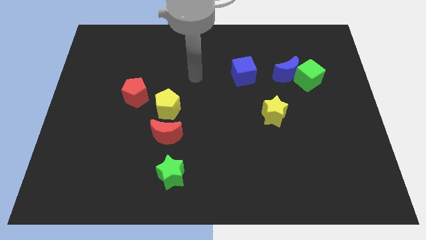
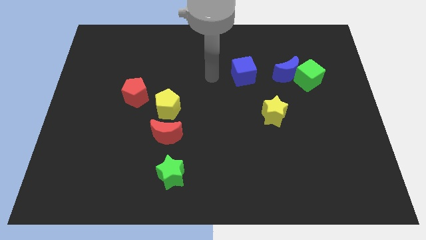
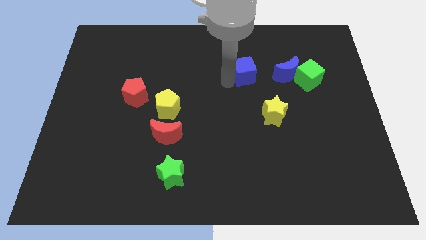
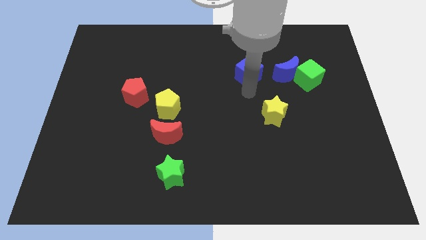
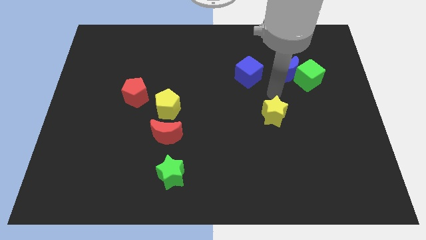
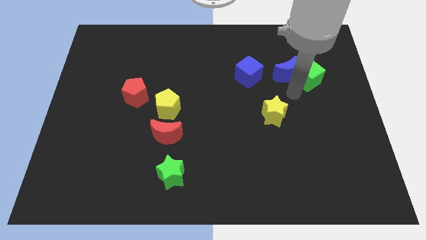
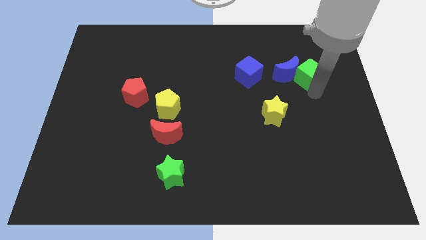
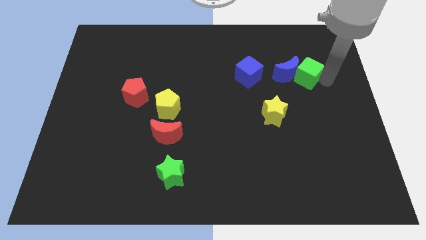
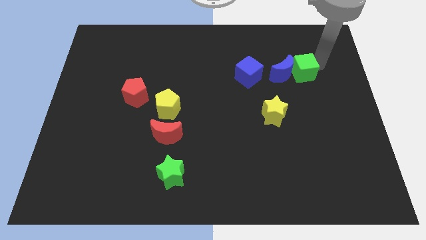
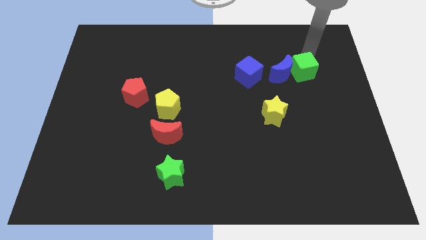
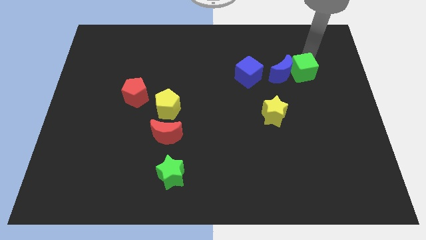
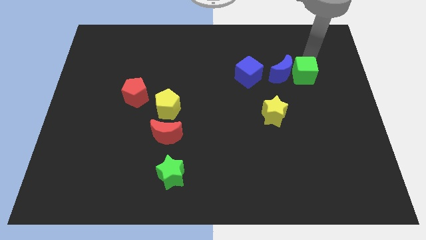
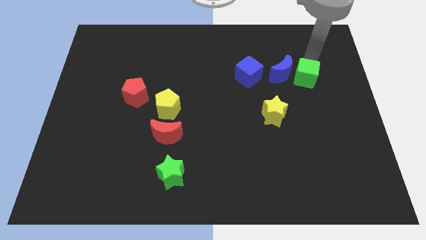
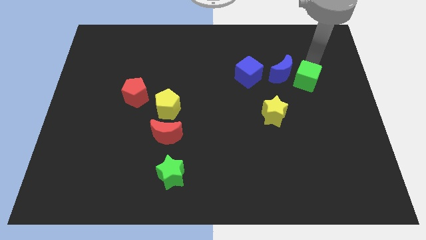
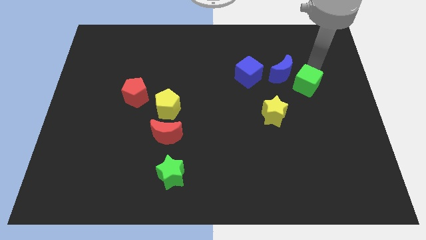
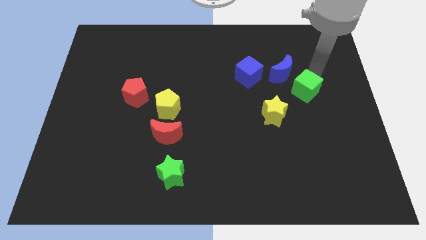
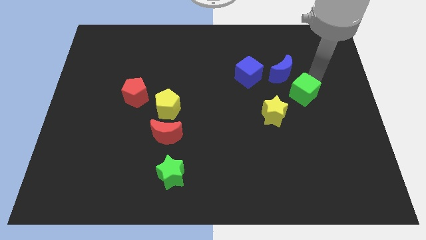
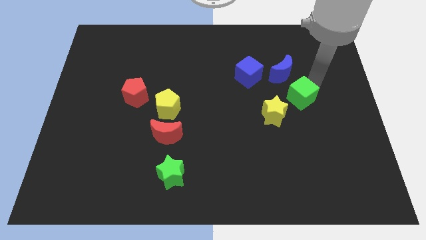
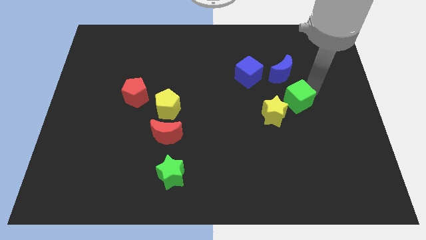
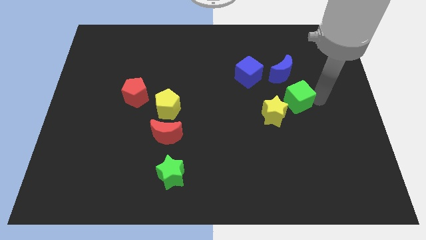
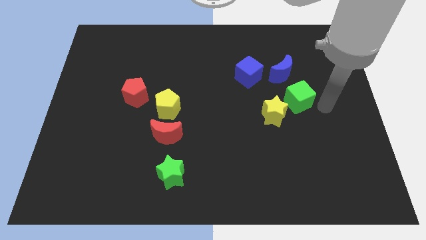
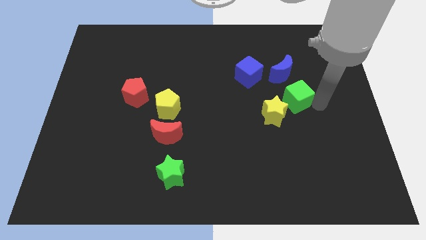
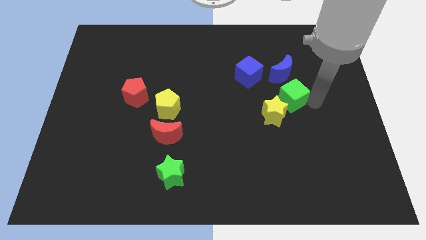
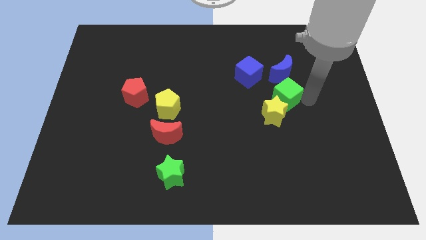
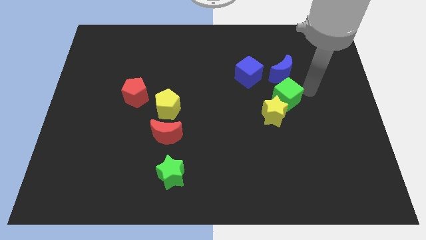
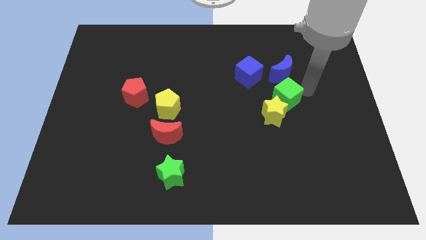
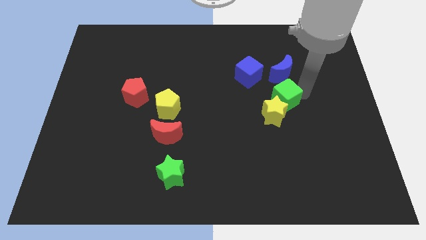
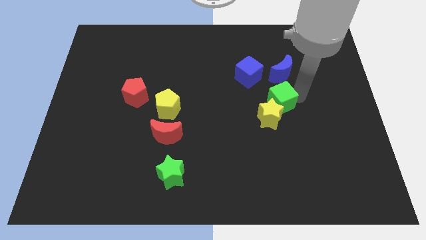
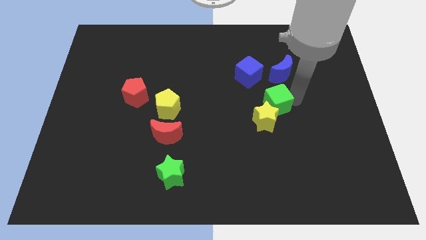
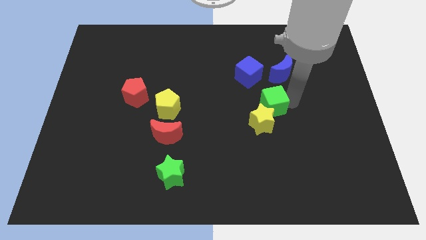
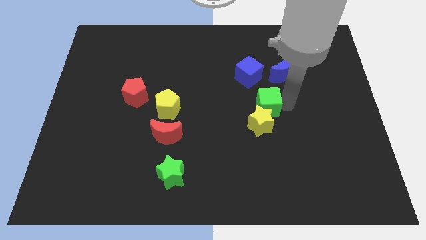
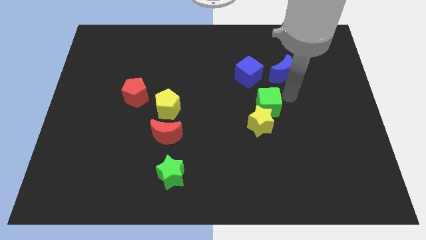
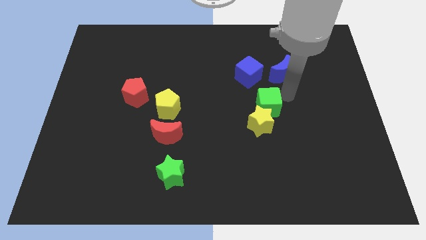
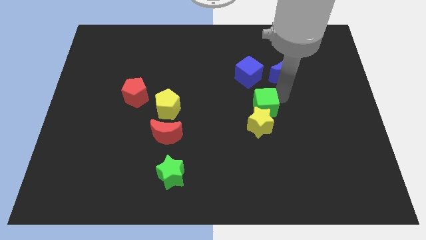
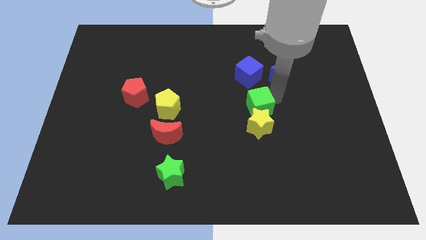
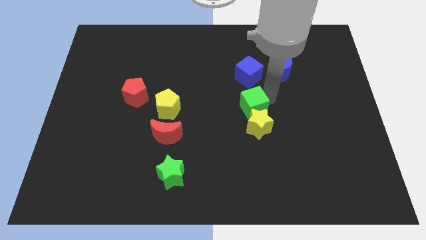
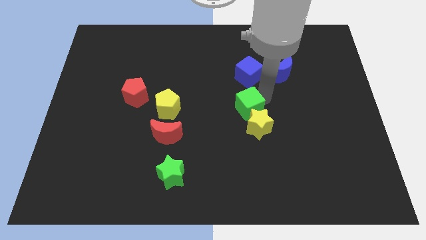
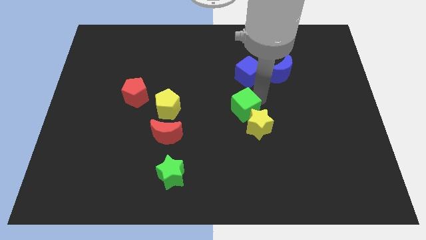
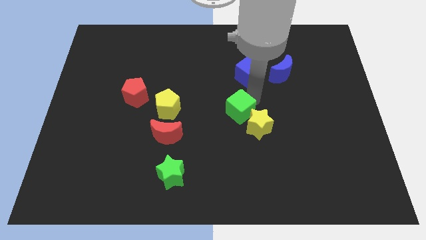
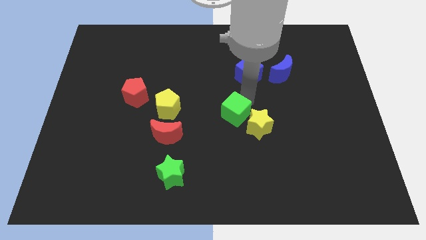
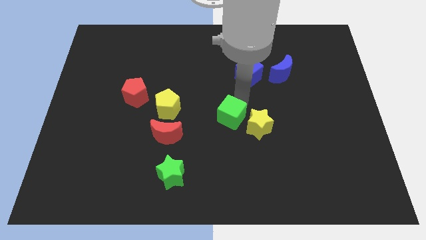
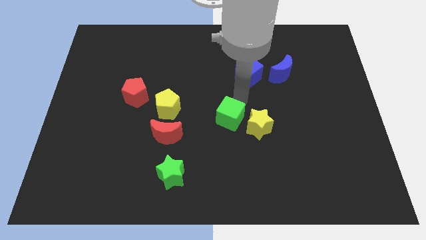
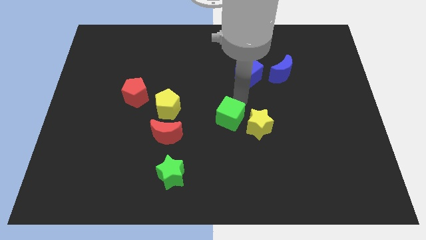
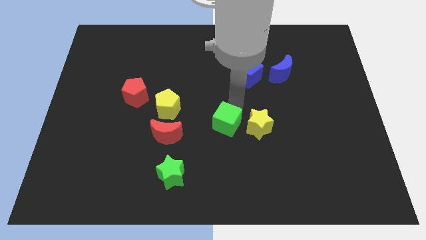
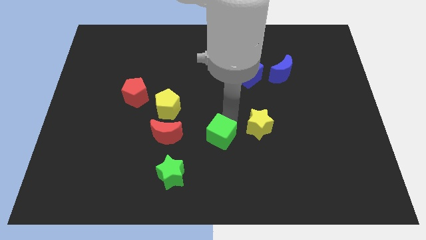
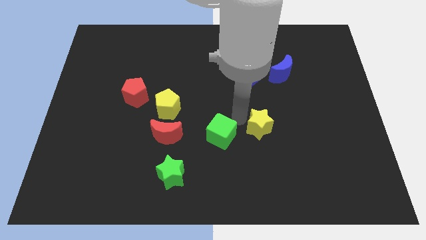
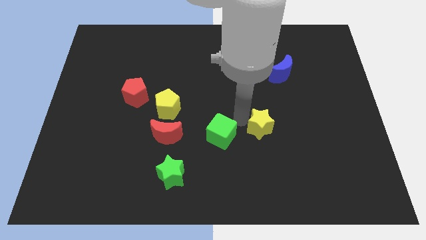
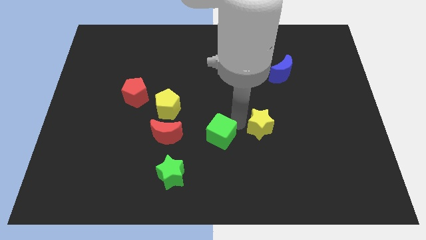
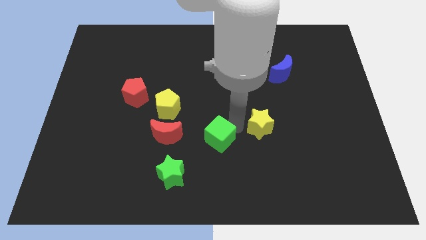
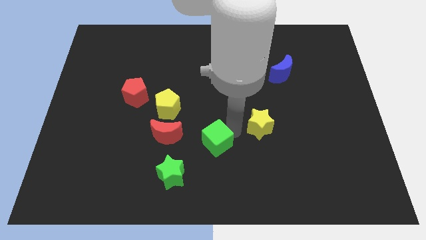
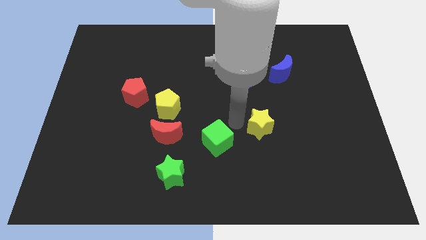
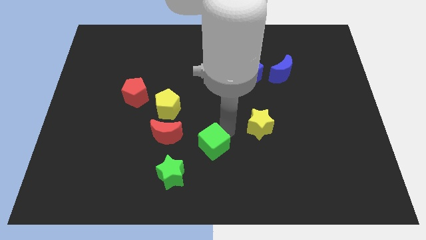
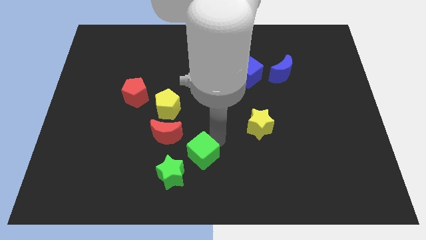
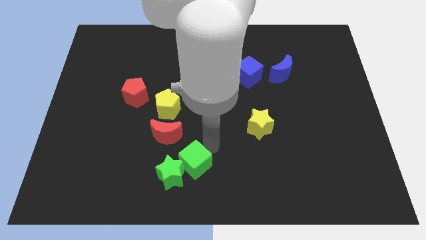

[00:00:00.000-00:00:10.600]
put the green cube towards the green star

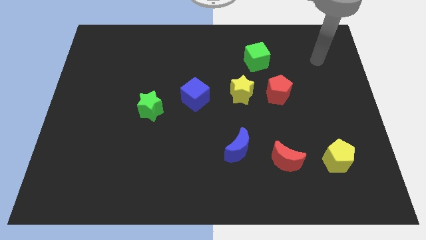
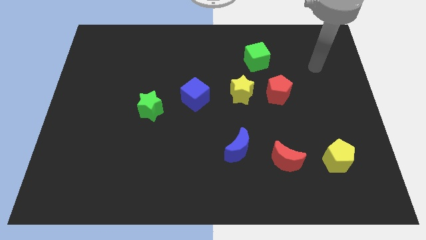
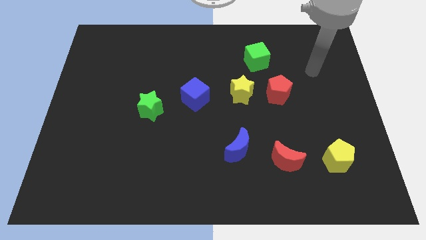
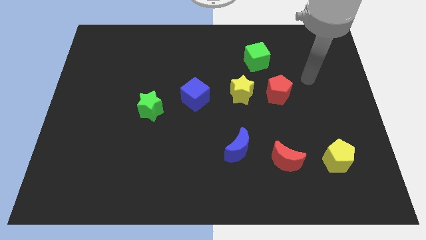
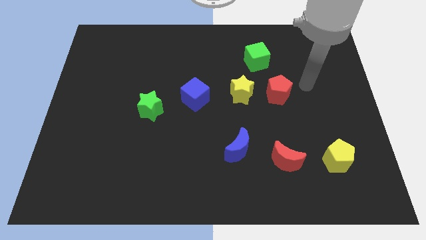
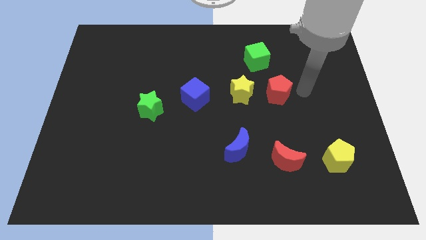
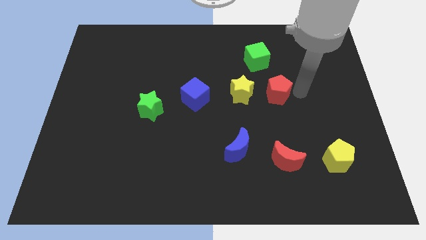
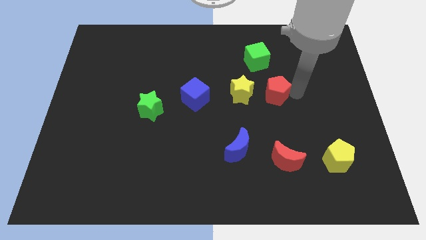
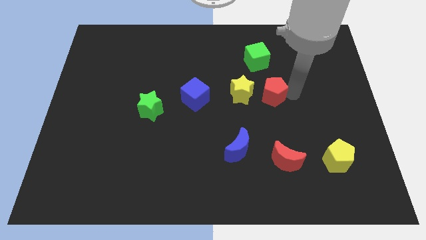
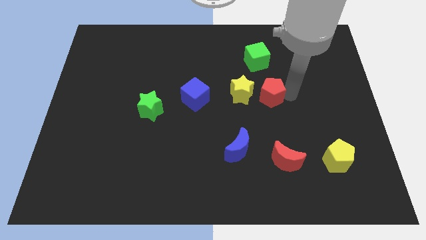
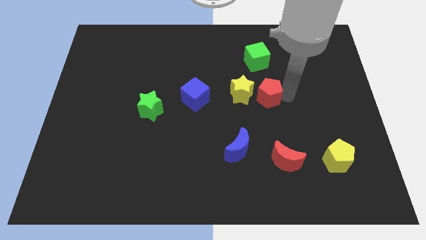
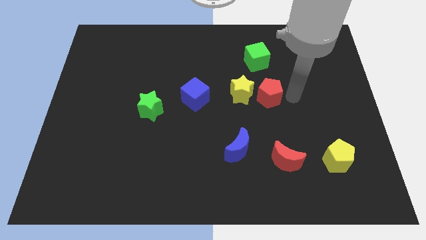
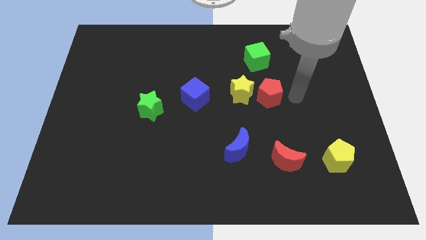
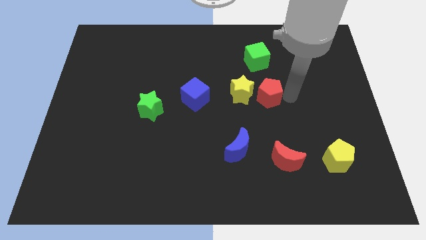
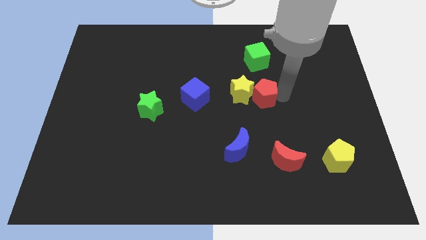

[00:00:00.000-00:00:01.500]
put the red pentagon to the yellow star
